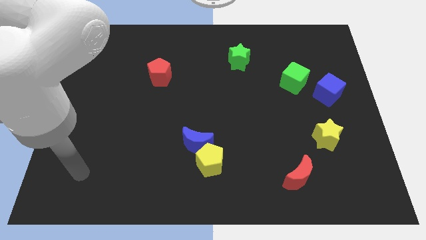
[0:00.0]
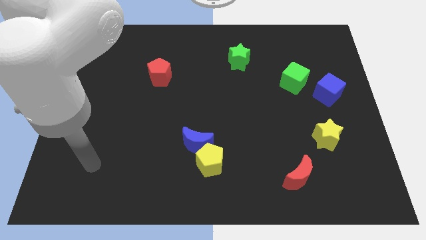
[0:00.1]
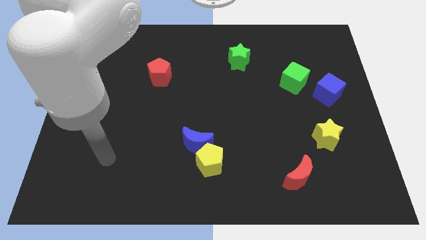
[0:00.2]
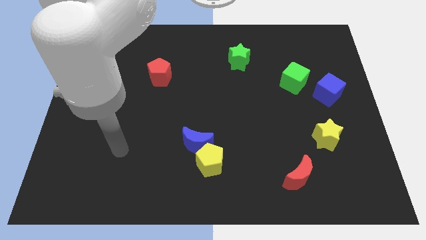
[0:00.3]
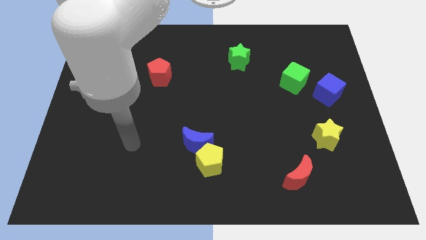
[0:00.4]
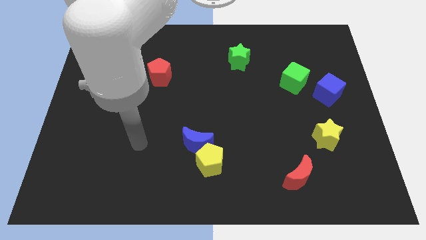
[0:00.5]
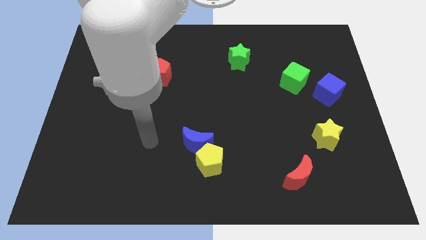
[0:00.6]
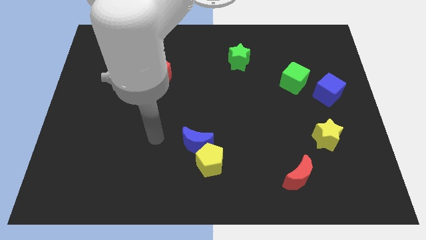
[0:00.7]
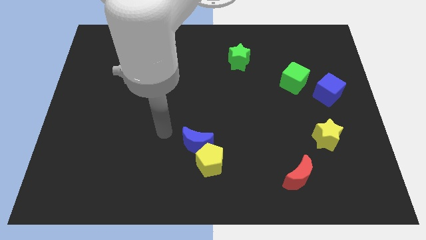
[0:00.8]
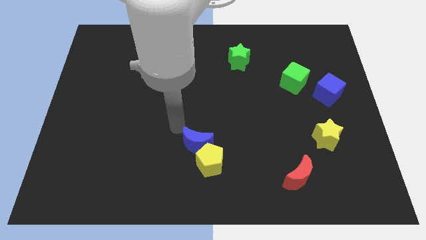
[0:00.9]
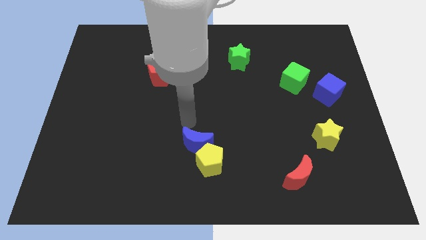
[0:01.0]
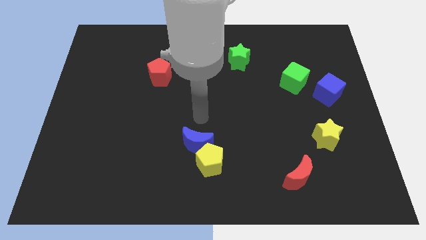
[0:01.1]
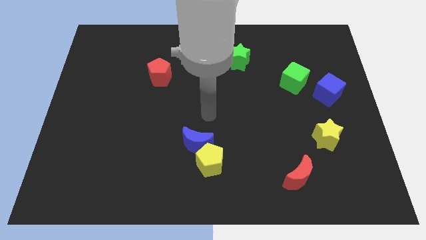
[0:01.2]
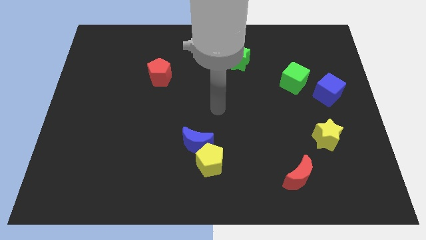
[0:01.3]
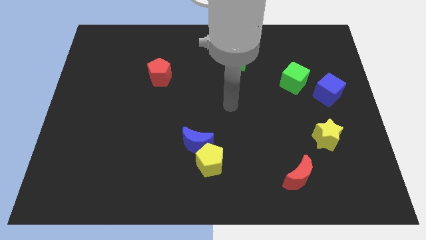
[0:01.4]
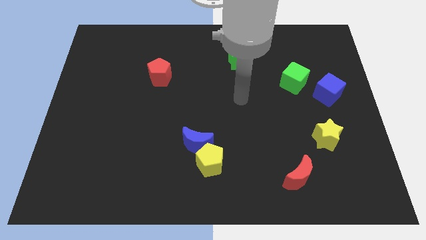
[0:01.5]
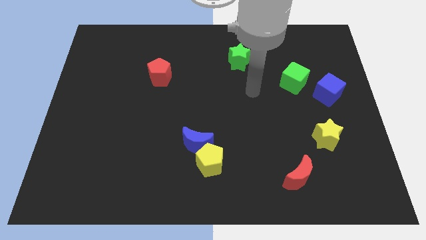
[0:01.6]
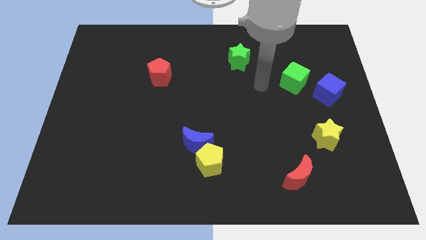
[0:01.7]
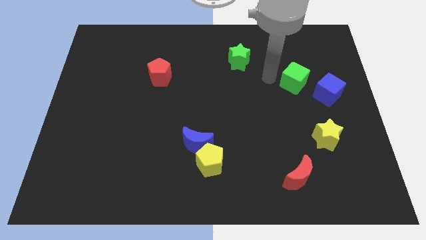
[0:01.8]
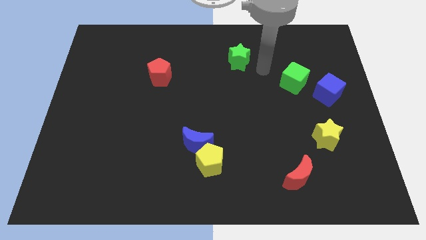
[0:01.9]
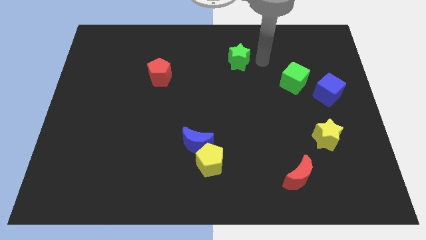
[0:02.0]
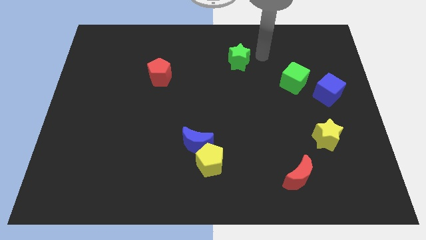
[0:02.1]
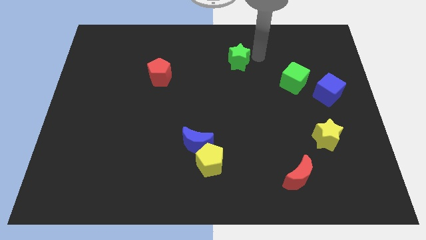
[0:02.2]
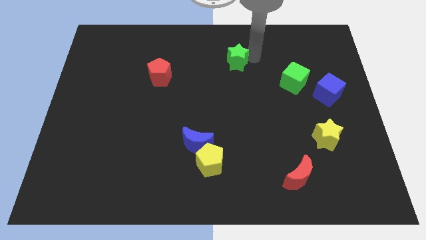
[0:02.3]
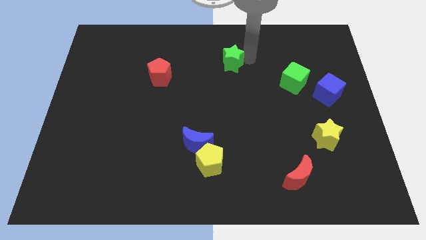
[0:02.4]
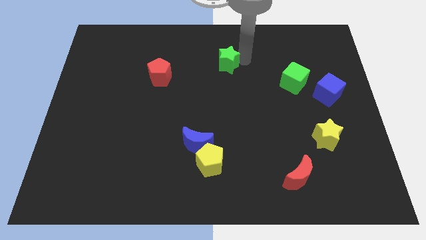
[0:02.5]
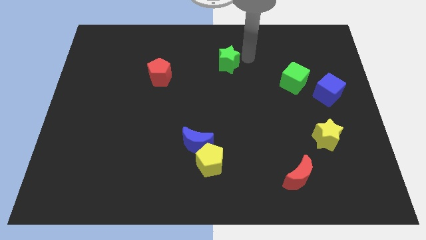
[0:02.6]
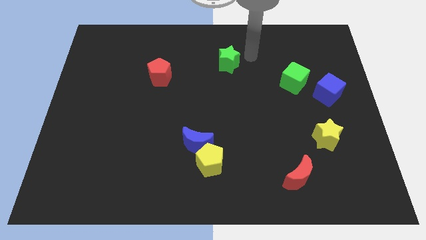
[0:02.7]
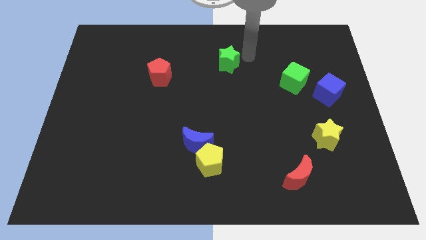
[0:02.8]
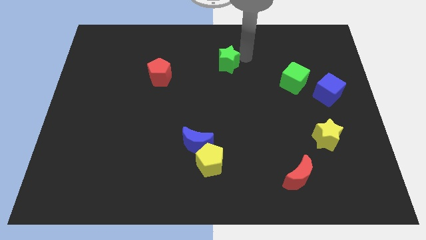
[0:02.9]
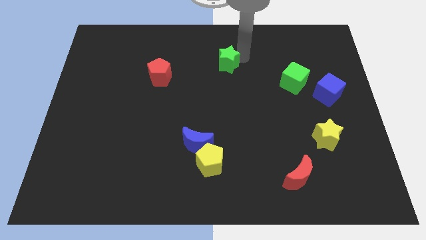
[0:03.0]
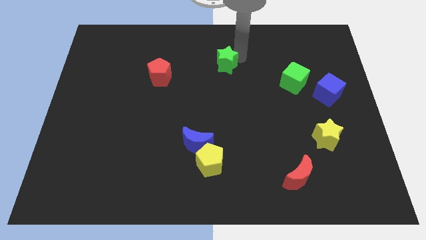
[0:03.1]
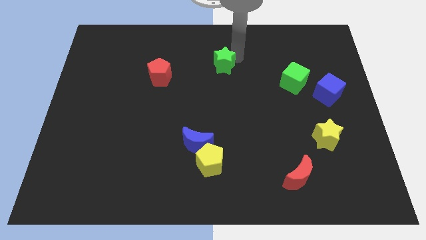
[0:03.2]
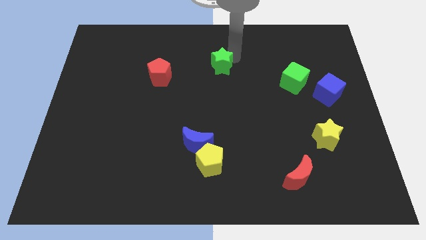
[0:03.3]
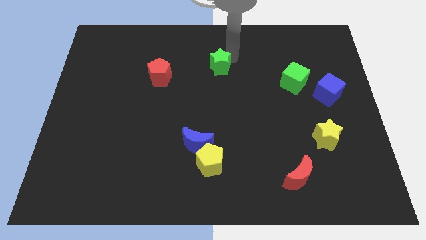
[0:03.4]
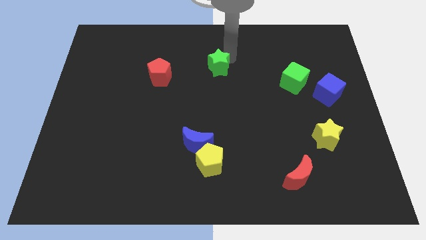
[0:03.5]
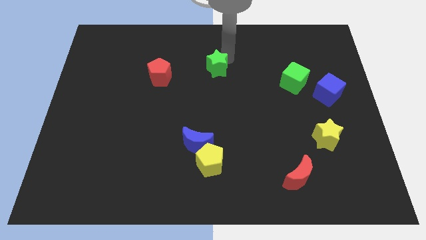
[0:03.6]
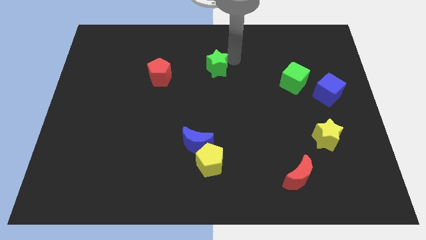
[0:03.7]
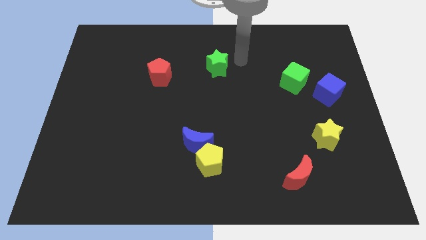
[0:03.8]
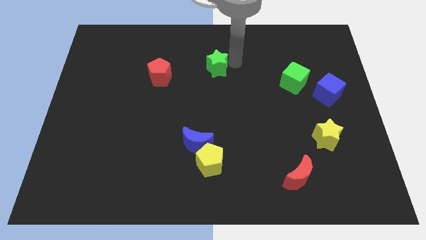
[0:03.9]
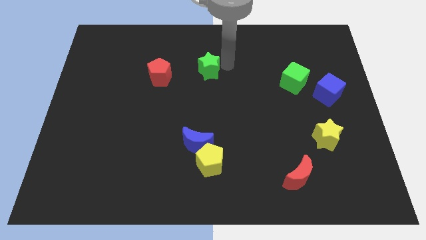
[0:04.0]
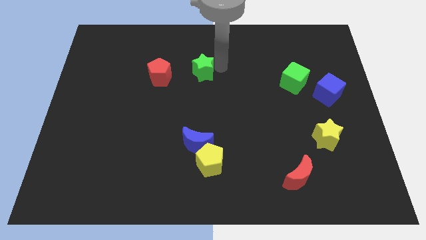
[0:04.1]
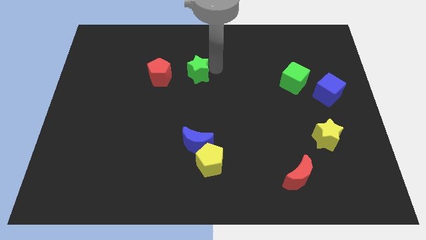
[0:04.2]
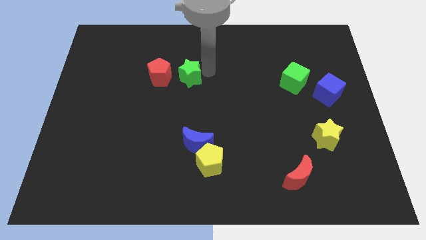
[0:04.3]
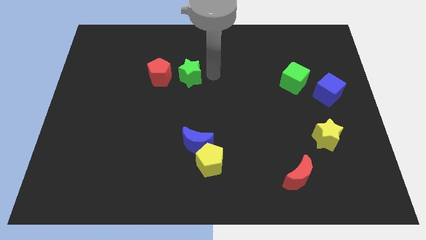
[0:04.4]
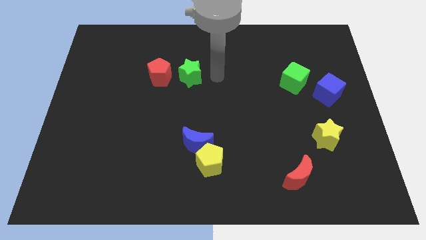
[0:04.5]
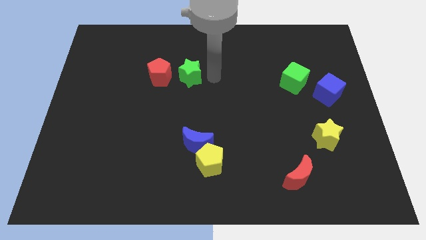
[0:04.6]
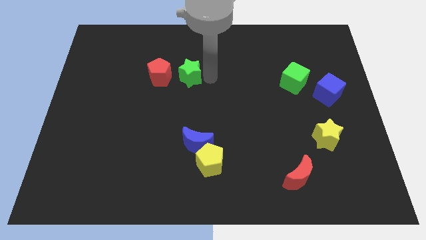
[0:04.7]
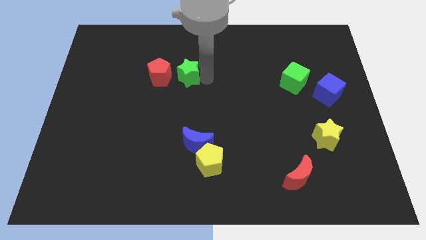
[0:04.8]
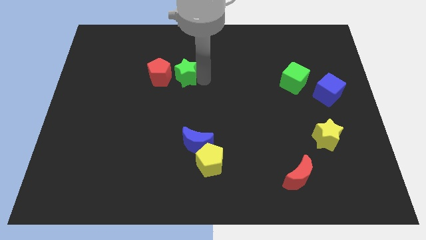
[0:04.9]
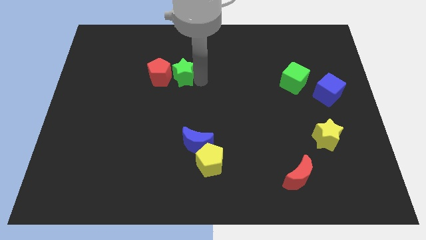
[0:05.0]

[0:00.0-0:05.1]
put the green star close to the red pentagon

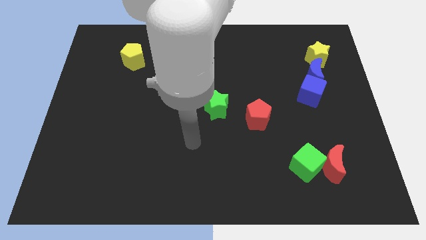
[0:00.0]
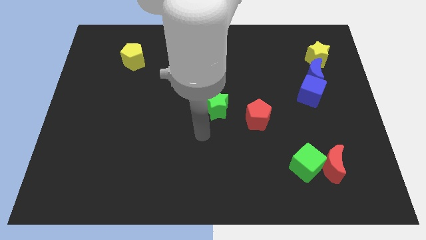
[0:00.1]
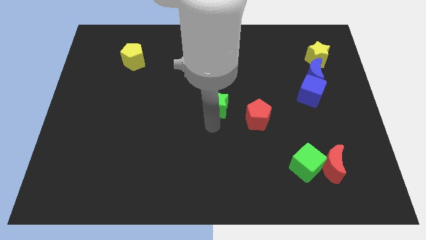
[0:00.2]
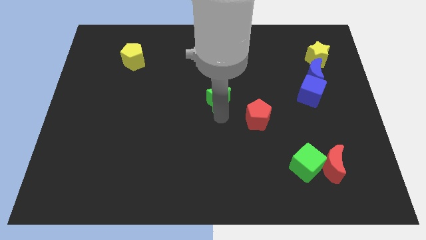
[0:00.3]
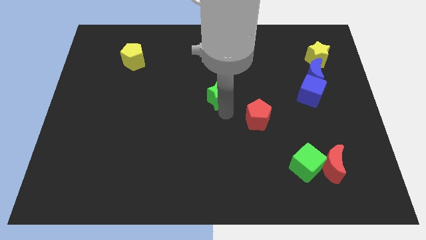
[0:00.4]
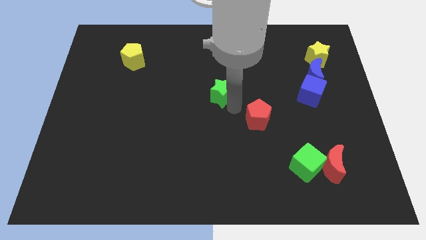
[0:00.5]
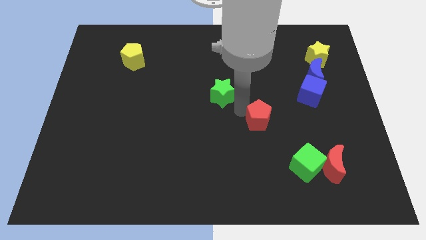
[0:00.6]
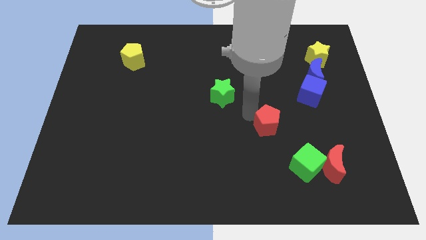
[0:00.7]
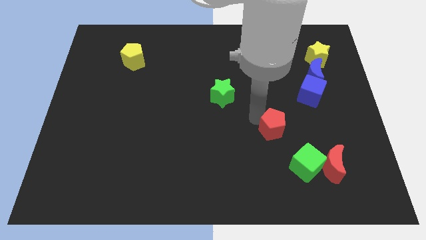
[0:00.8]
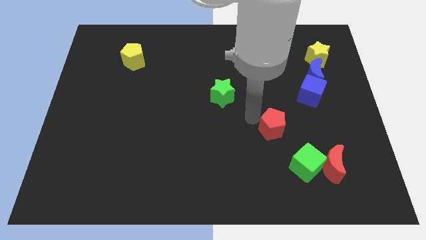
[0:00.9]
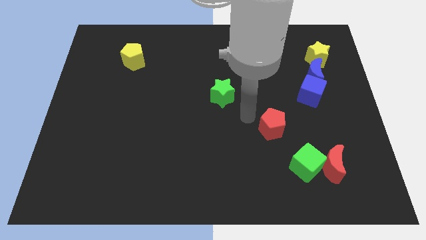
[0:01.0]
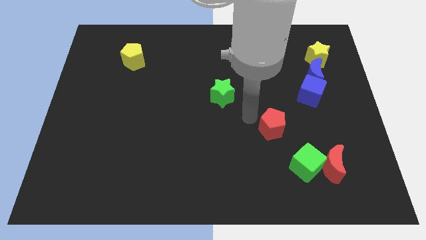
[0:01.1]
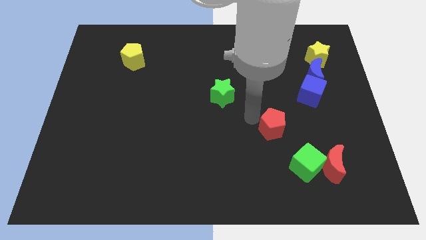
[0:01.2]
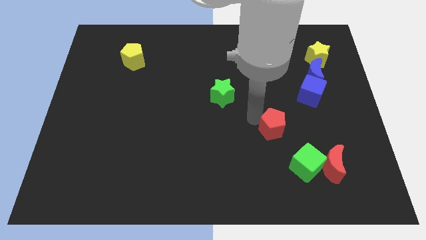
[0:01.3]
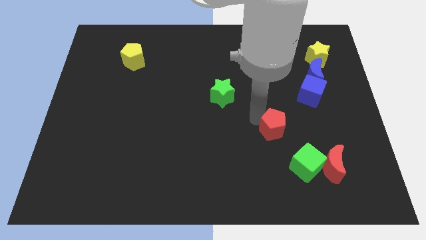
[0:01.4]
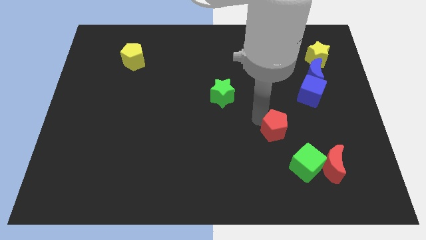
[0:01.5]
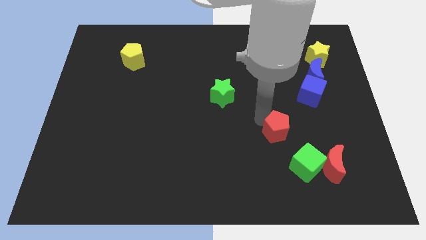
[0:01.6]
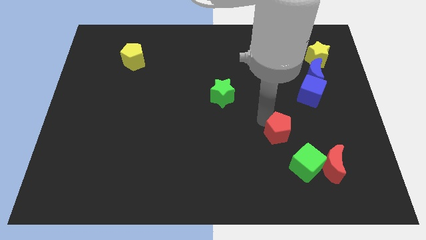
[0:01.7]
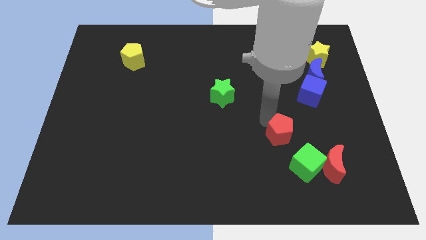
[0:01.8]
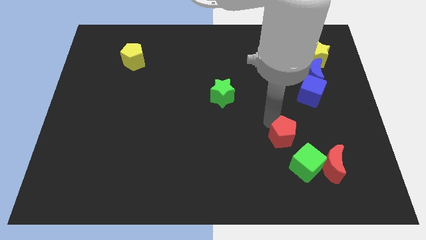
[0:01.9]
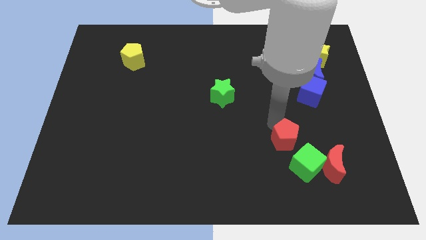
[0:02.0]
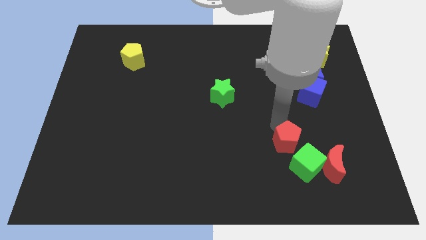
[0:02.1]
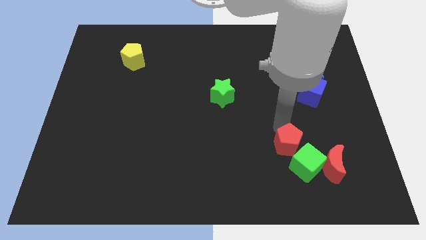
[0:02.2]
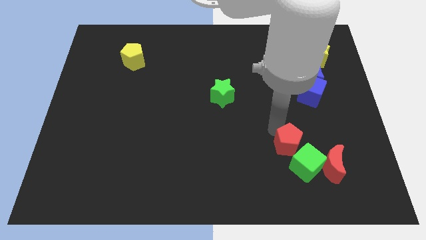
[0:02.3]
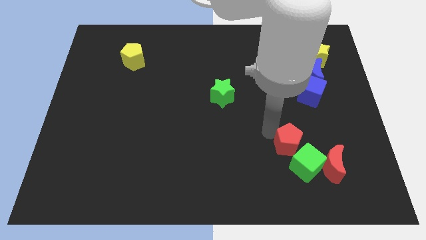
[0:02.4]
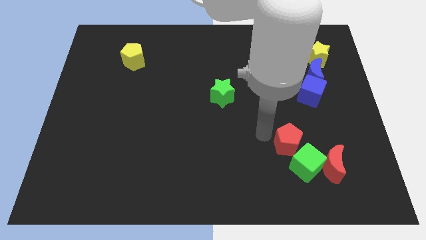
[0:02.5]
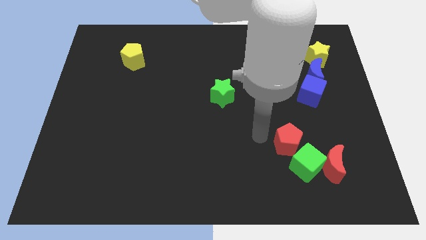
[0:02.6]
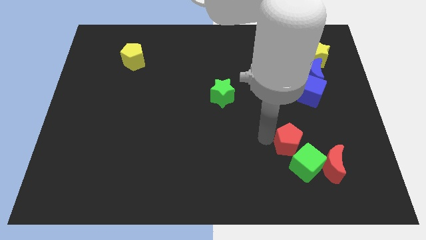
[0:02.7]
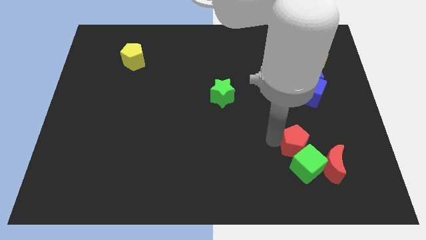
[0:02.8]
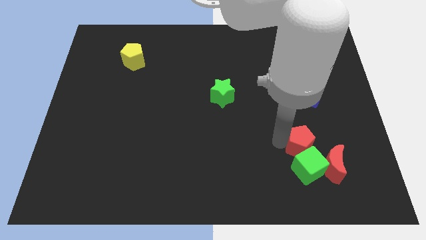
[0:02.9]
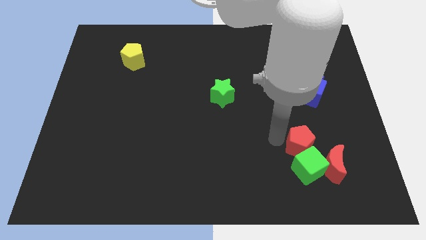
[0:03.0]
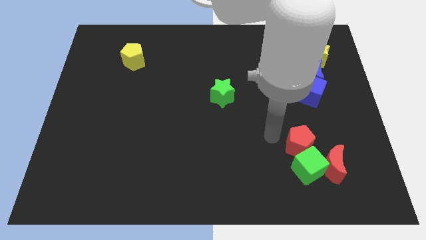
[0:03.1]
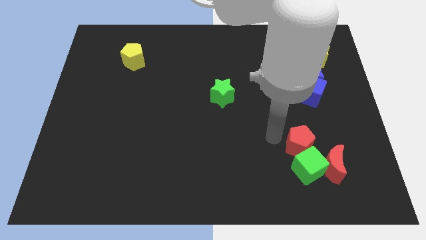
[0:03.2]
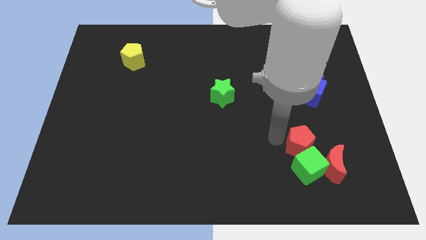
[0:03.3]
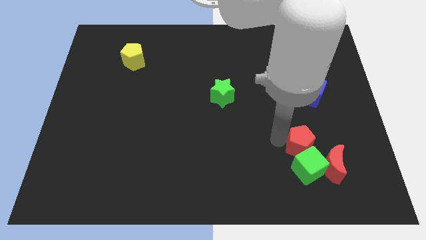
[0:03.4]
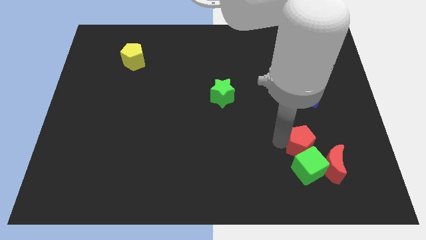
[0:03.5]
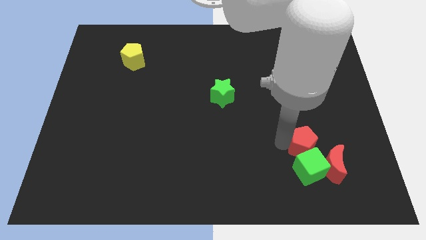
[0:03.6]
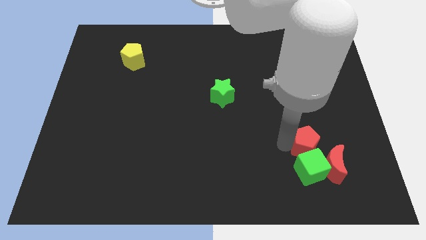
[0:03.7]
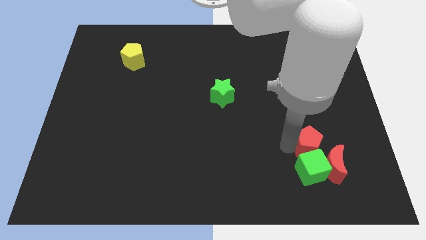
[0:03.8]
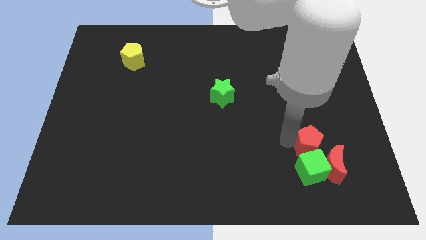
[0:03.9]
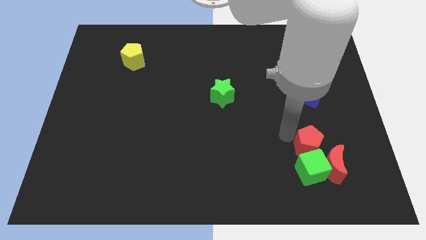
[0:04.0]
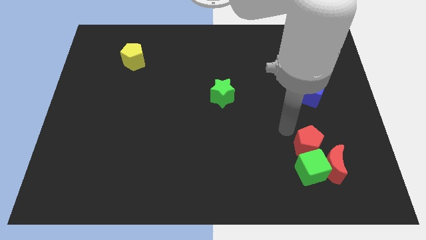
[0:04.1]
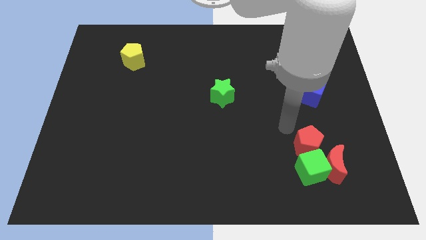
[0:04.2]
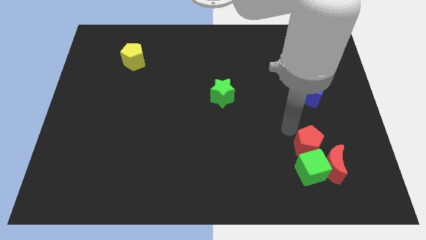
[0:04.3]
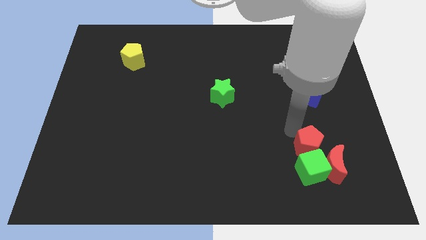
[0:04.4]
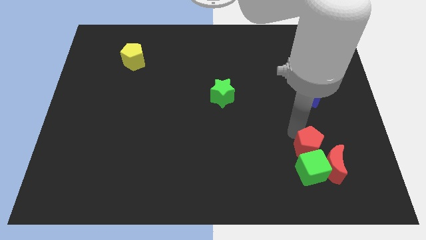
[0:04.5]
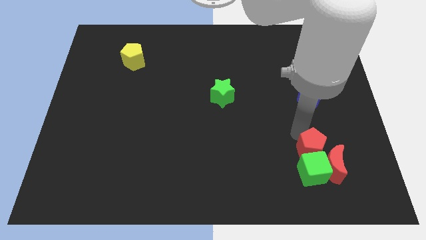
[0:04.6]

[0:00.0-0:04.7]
put the red pentagon to the red moon
